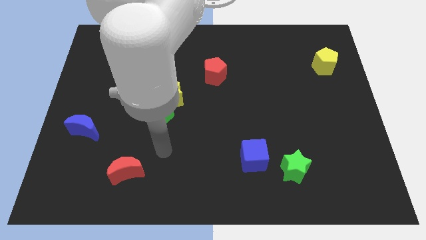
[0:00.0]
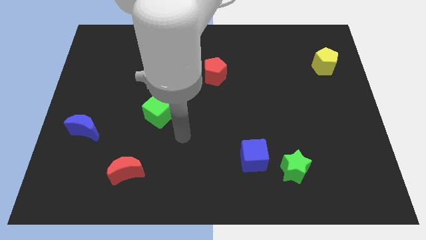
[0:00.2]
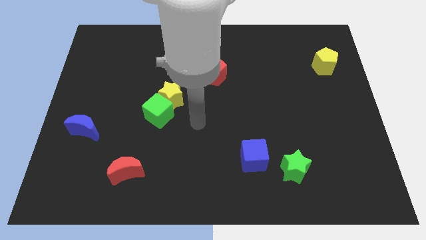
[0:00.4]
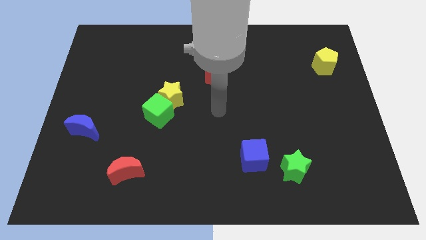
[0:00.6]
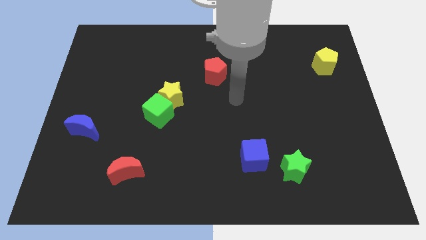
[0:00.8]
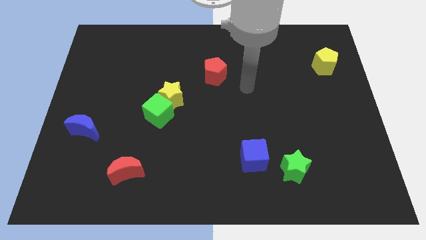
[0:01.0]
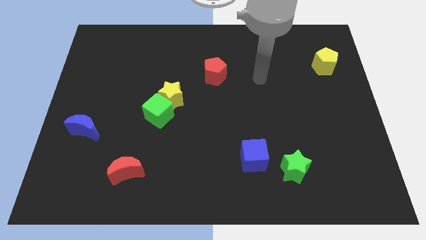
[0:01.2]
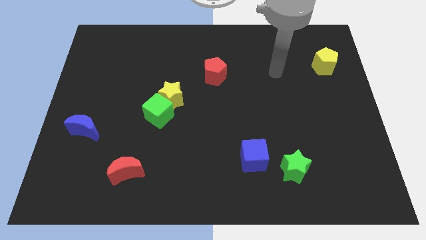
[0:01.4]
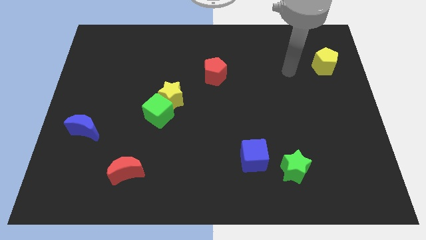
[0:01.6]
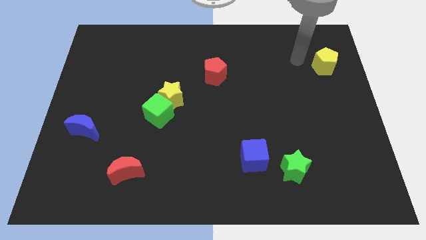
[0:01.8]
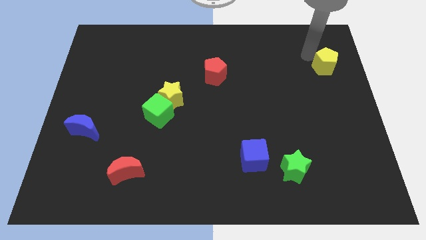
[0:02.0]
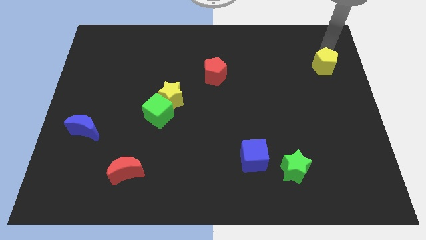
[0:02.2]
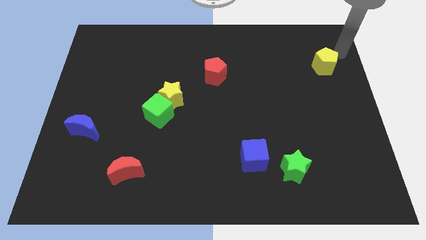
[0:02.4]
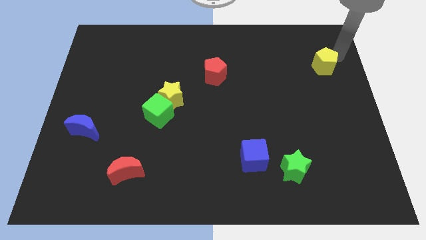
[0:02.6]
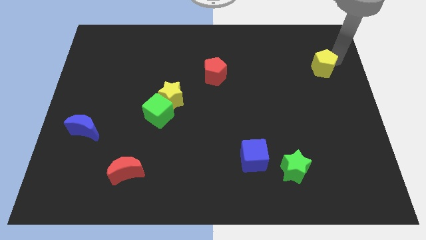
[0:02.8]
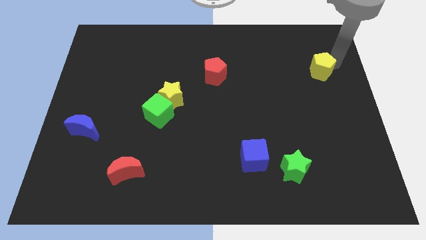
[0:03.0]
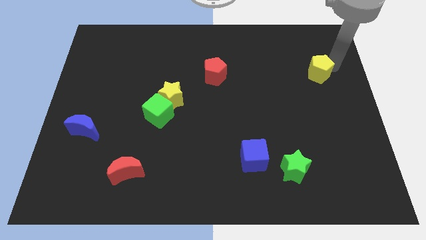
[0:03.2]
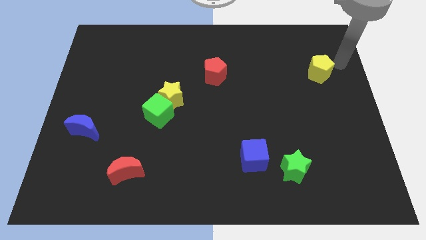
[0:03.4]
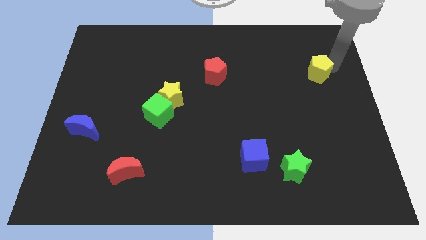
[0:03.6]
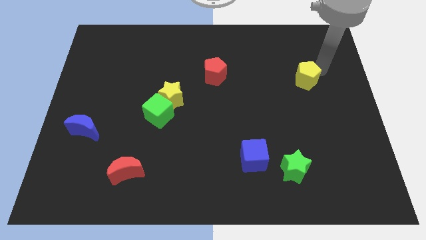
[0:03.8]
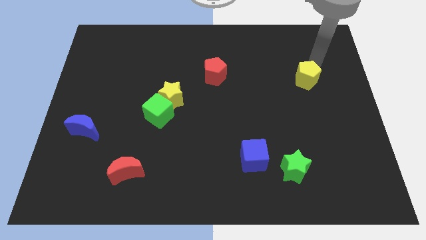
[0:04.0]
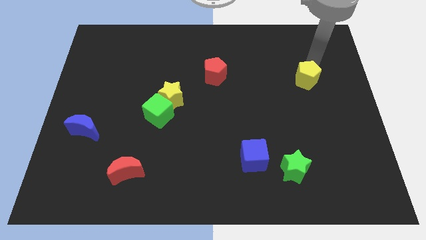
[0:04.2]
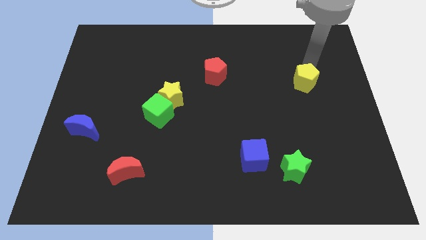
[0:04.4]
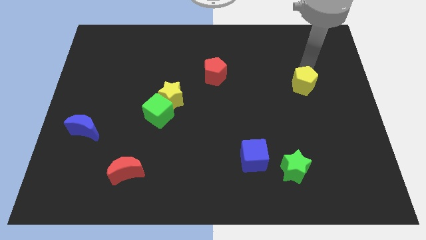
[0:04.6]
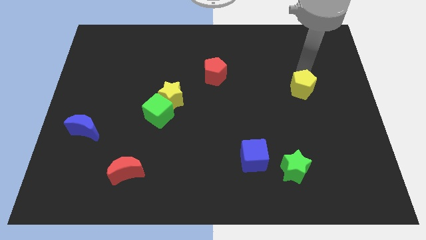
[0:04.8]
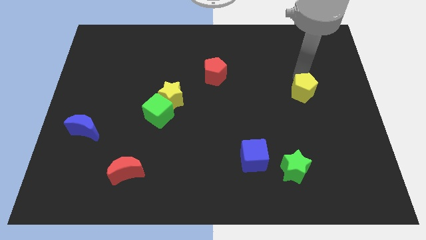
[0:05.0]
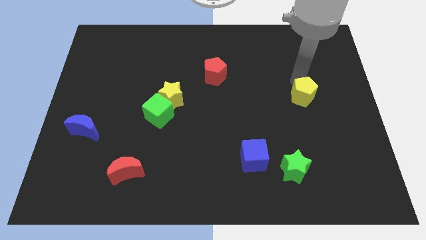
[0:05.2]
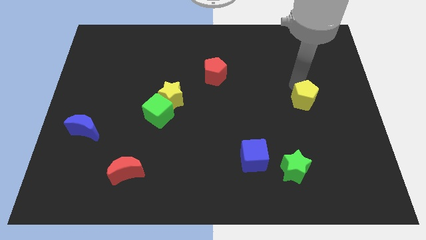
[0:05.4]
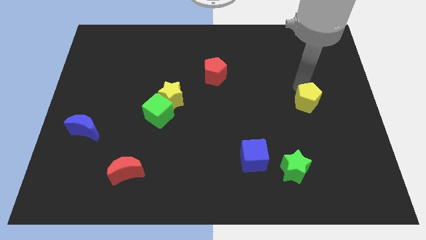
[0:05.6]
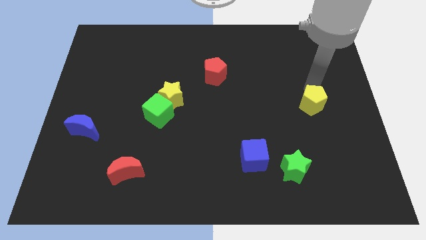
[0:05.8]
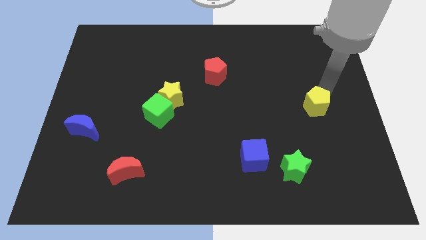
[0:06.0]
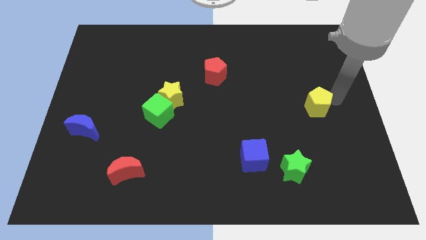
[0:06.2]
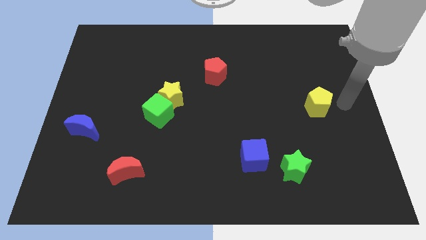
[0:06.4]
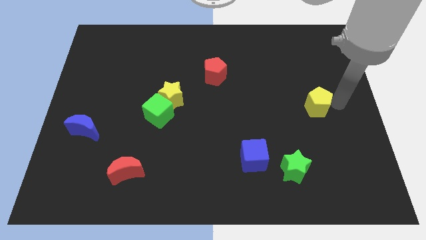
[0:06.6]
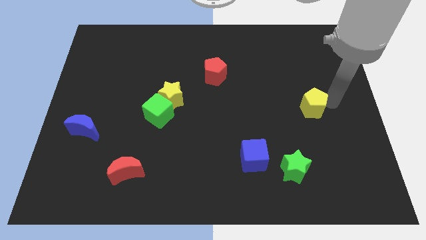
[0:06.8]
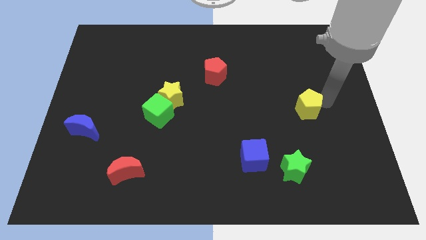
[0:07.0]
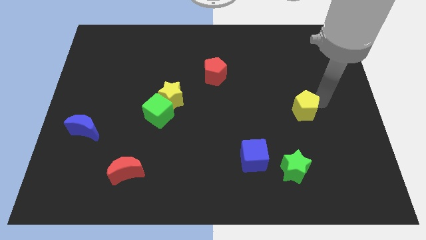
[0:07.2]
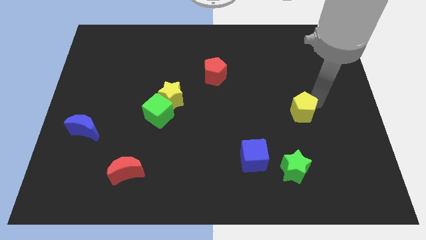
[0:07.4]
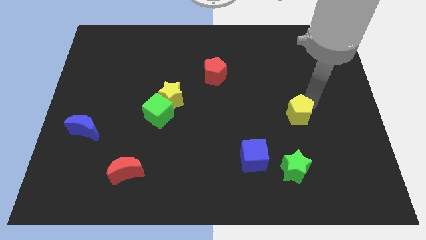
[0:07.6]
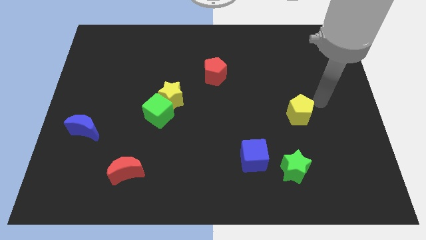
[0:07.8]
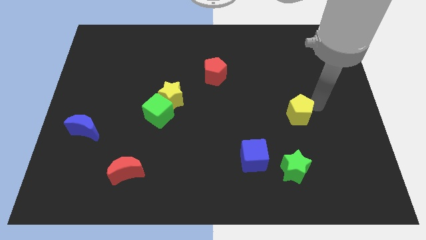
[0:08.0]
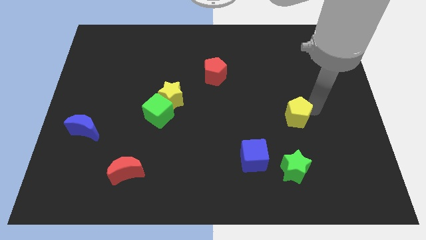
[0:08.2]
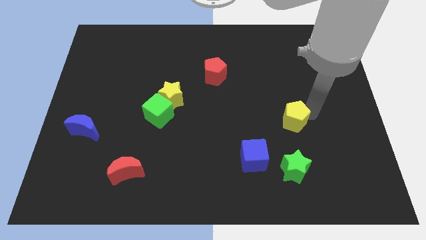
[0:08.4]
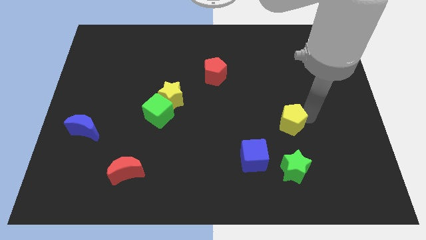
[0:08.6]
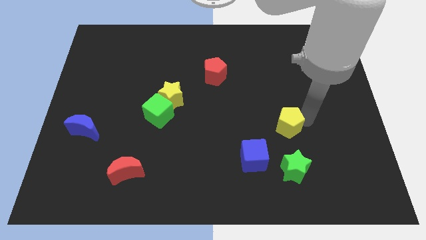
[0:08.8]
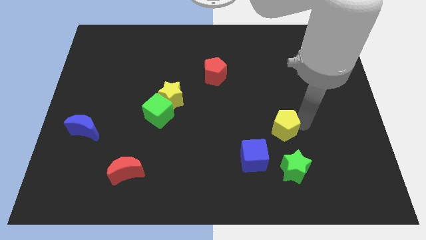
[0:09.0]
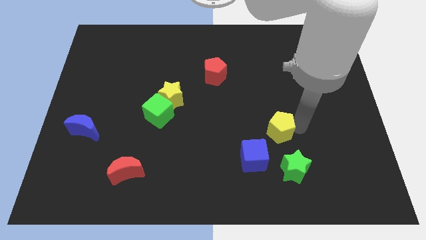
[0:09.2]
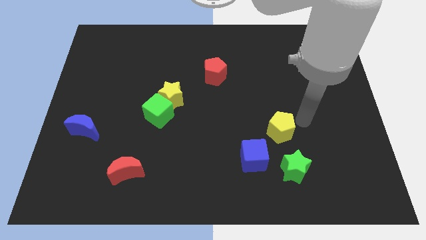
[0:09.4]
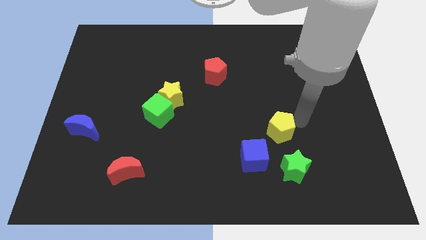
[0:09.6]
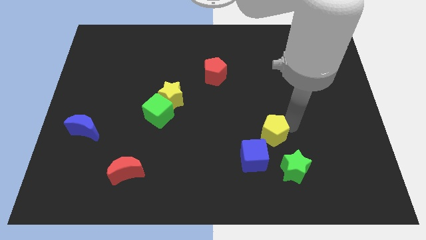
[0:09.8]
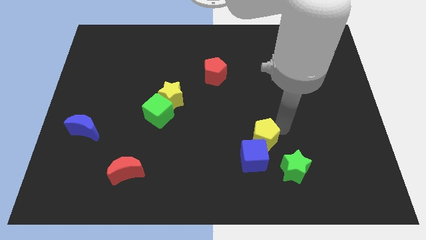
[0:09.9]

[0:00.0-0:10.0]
slide the yellow pentagon to the blue cube

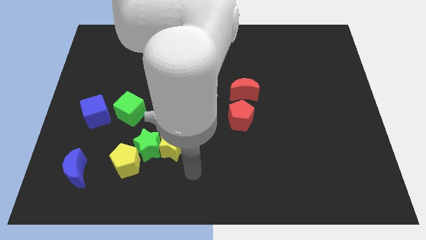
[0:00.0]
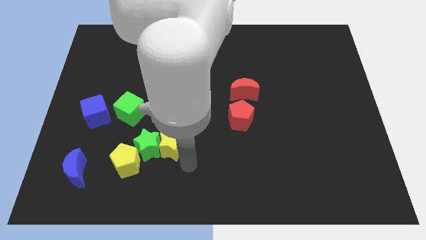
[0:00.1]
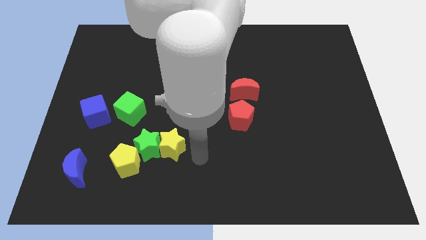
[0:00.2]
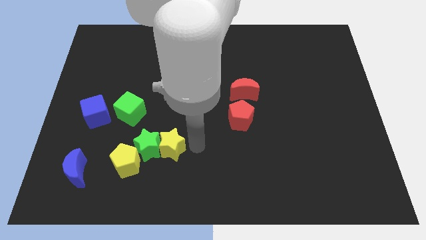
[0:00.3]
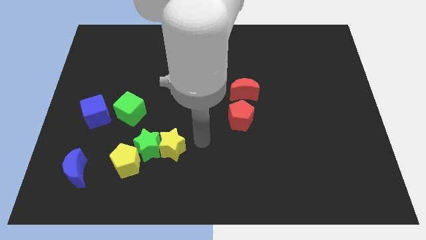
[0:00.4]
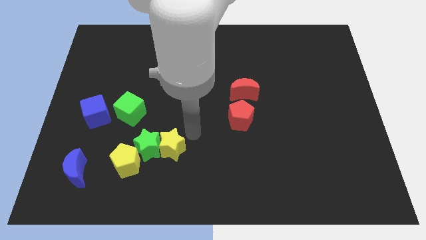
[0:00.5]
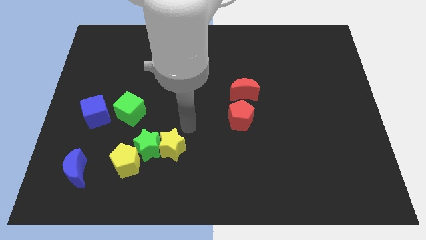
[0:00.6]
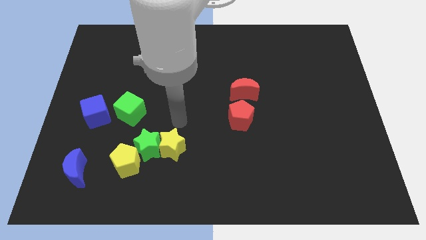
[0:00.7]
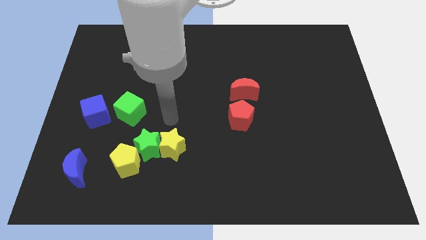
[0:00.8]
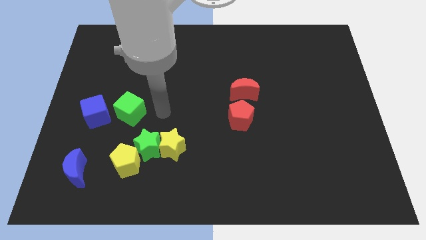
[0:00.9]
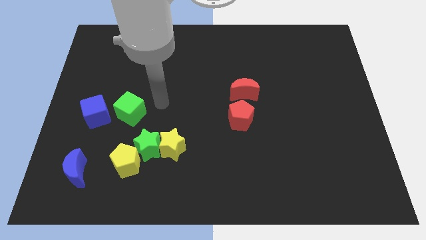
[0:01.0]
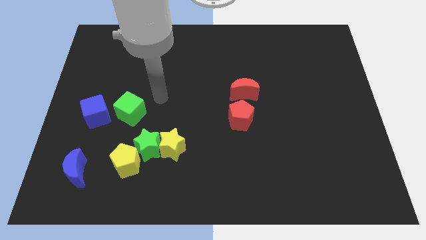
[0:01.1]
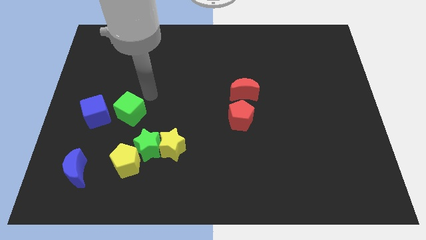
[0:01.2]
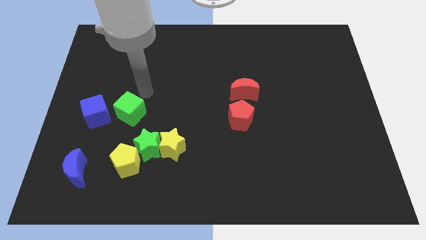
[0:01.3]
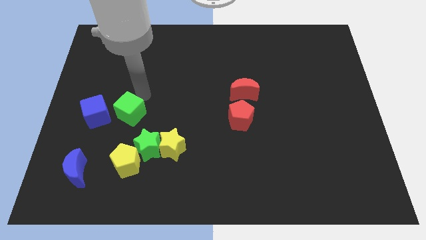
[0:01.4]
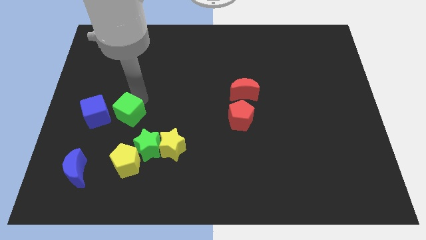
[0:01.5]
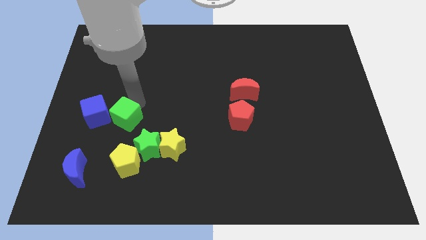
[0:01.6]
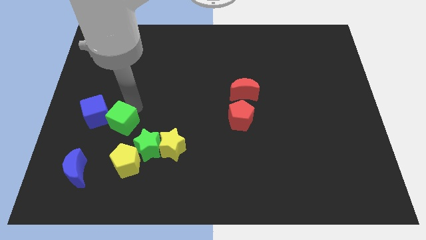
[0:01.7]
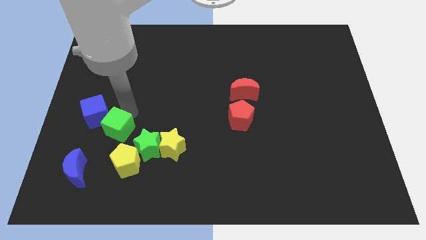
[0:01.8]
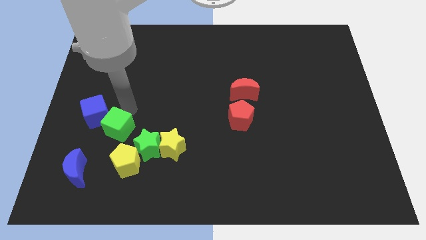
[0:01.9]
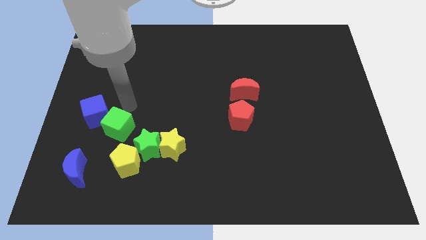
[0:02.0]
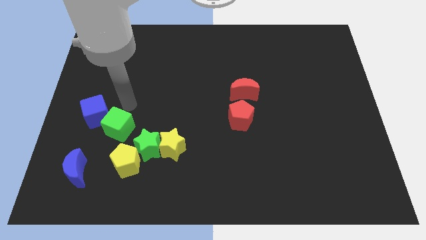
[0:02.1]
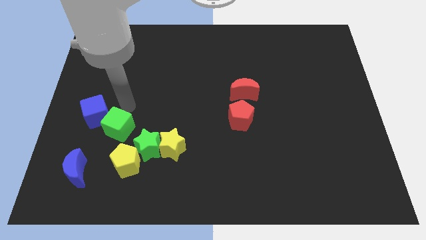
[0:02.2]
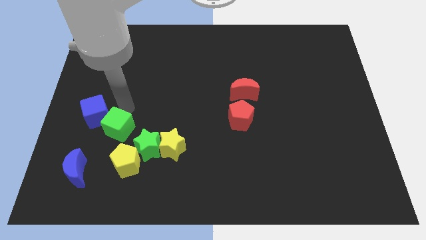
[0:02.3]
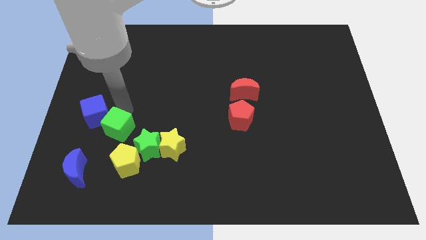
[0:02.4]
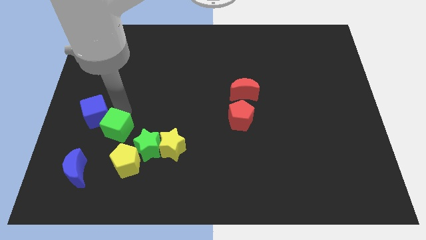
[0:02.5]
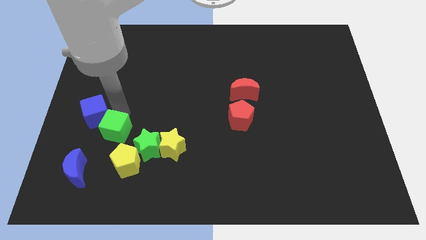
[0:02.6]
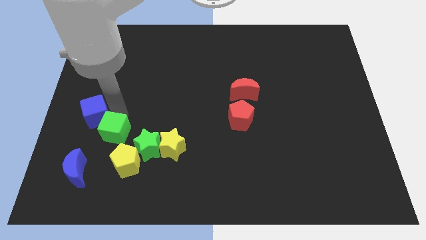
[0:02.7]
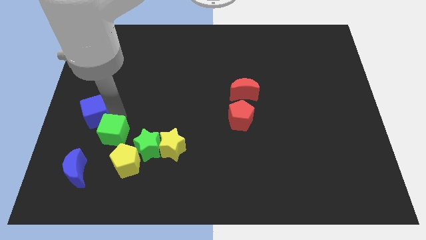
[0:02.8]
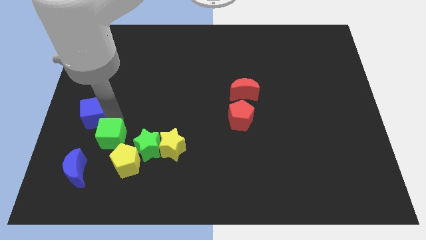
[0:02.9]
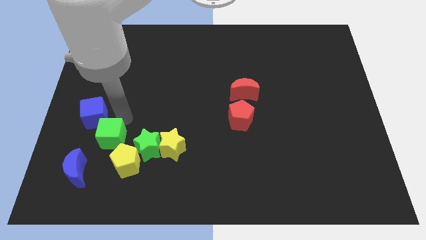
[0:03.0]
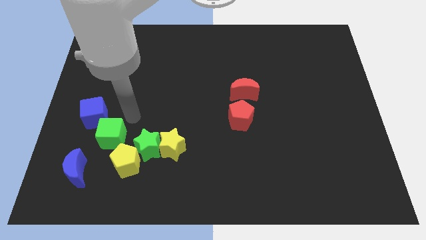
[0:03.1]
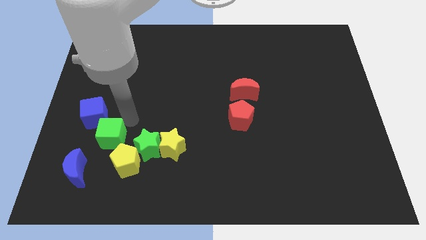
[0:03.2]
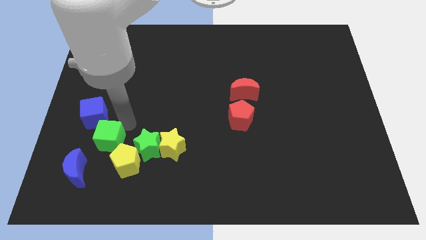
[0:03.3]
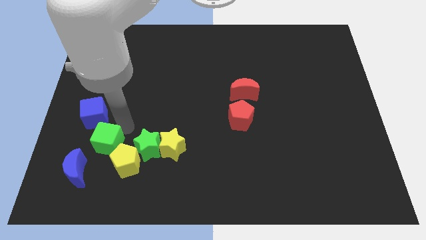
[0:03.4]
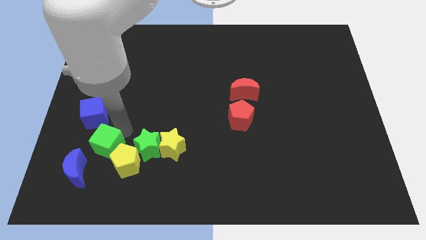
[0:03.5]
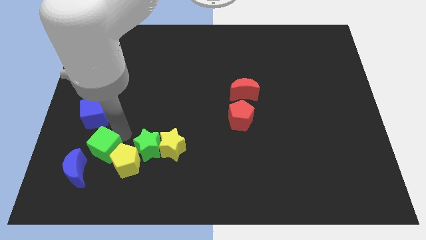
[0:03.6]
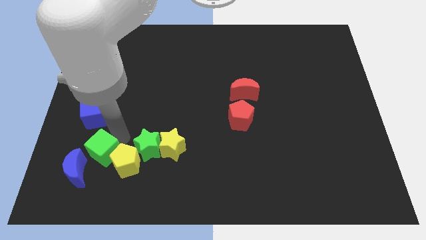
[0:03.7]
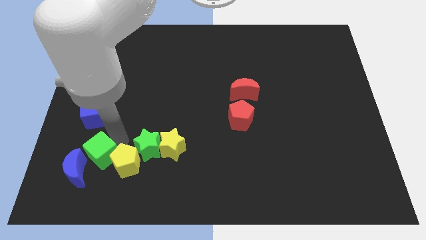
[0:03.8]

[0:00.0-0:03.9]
move the green cube close to the blue moon
